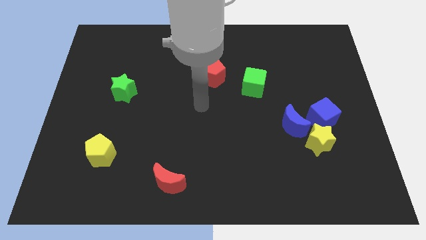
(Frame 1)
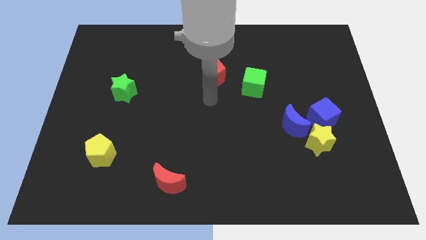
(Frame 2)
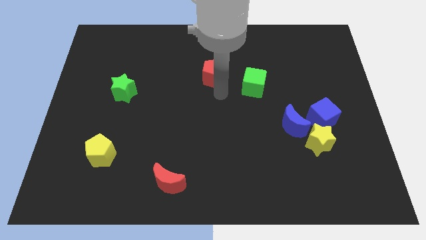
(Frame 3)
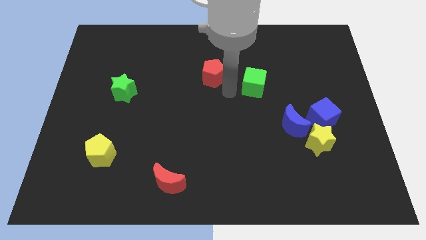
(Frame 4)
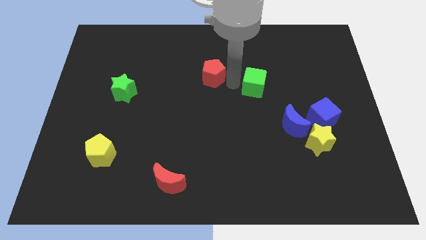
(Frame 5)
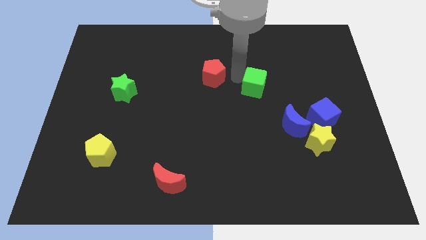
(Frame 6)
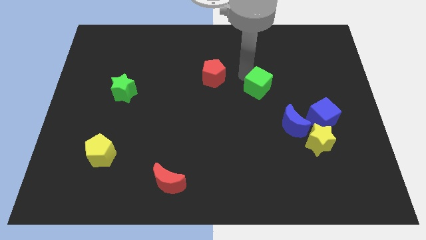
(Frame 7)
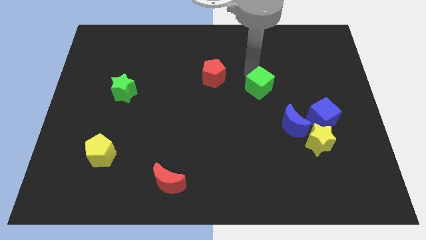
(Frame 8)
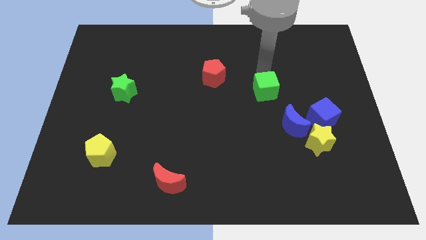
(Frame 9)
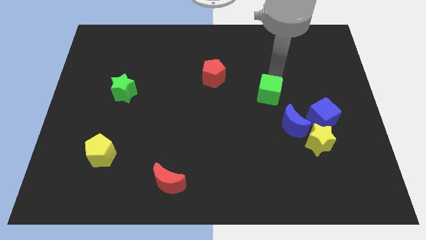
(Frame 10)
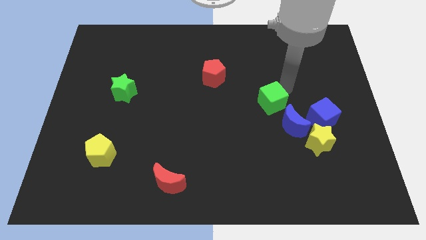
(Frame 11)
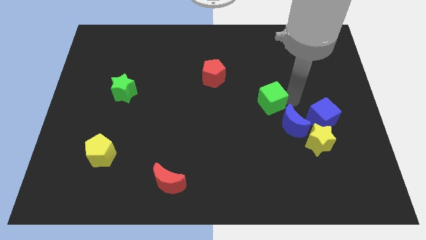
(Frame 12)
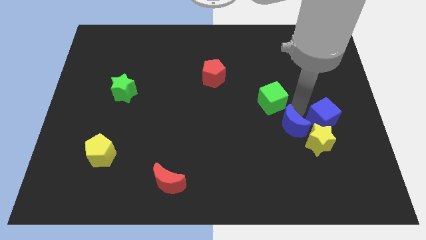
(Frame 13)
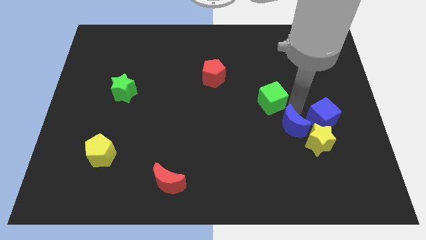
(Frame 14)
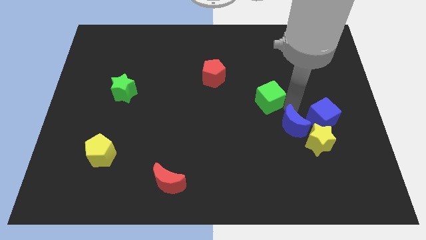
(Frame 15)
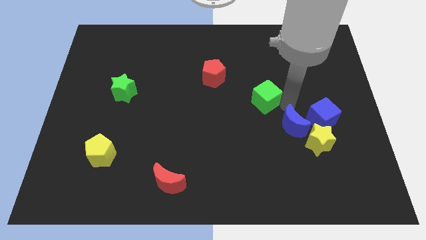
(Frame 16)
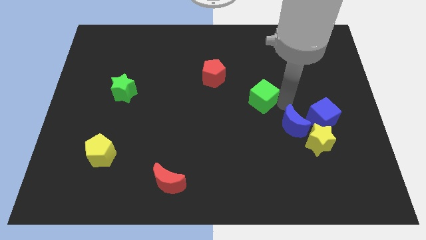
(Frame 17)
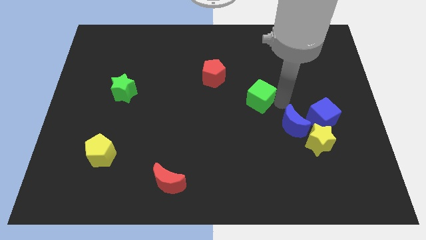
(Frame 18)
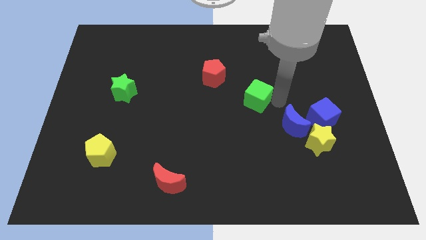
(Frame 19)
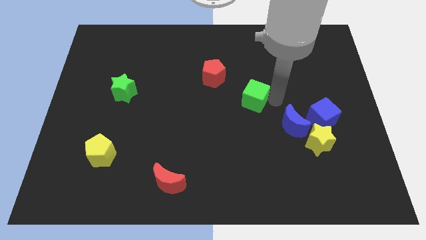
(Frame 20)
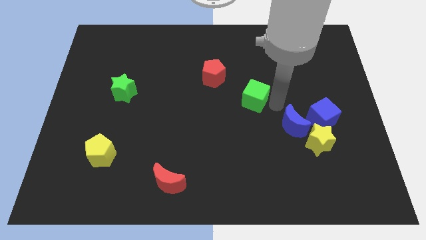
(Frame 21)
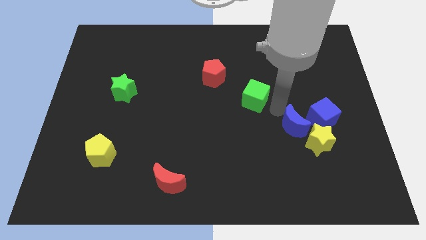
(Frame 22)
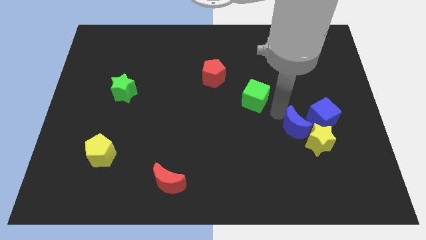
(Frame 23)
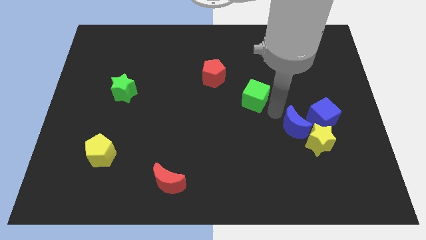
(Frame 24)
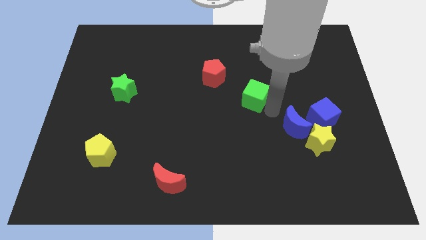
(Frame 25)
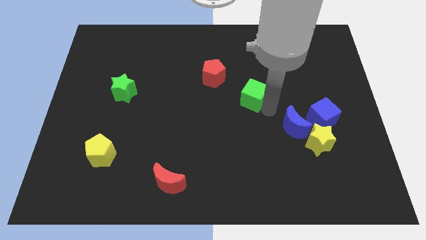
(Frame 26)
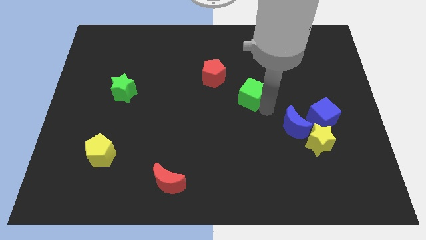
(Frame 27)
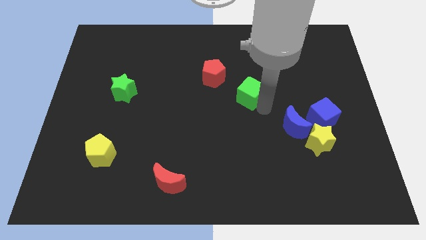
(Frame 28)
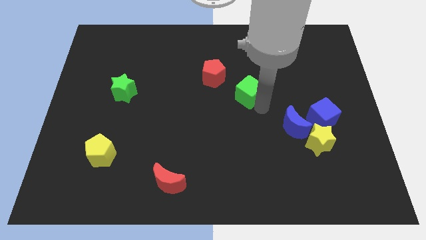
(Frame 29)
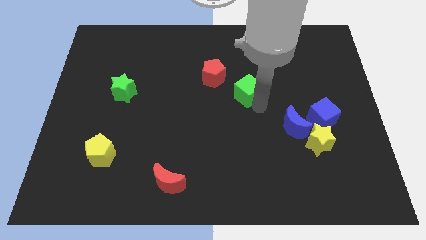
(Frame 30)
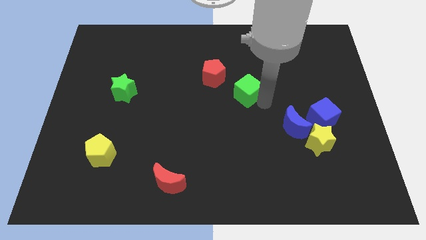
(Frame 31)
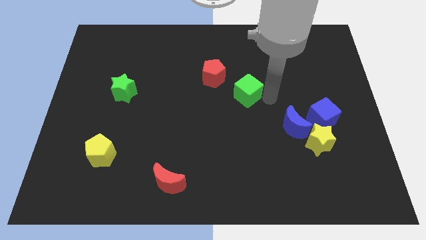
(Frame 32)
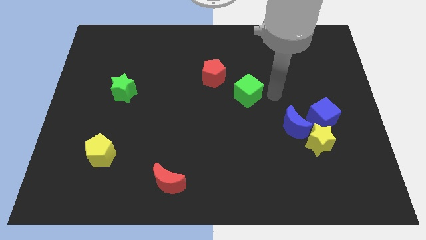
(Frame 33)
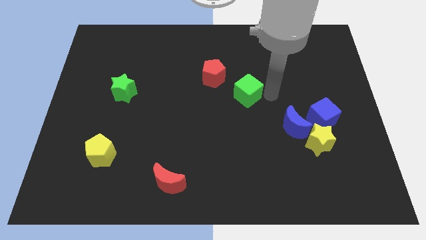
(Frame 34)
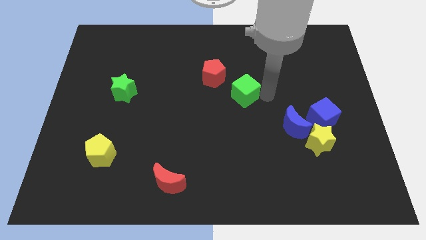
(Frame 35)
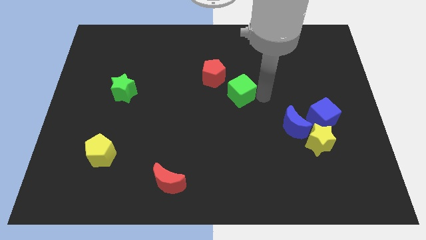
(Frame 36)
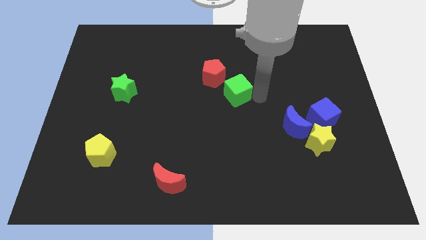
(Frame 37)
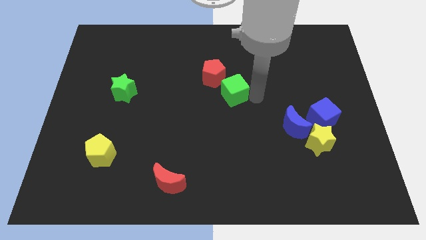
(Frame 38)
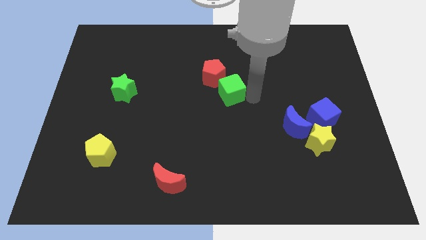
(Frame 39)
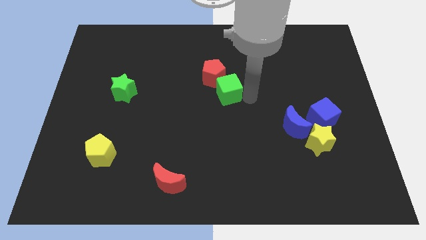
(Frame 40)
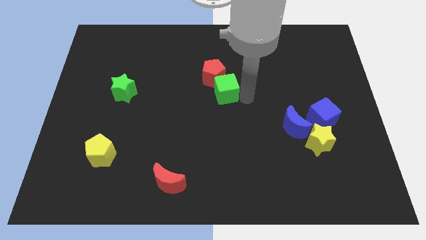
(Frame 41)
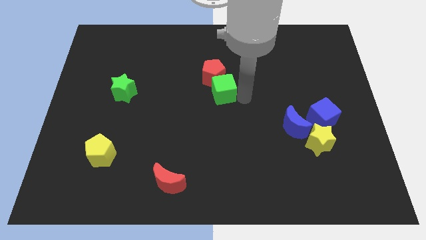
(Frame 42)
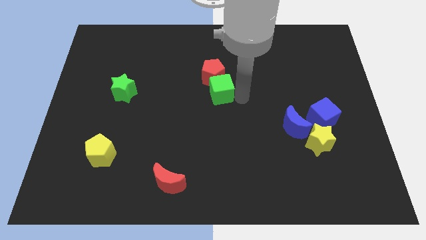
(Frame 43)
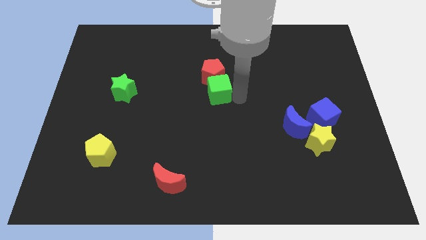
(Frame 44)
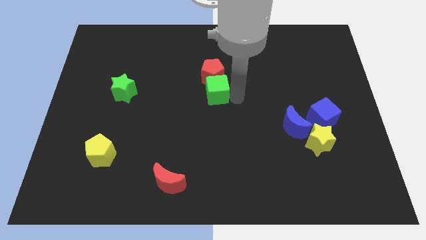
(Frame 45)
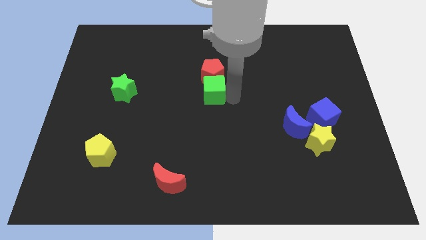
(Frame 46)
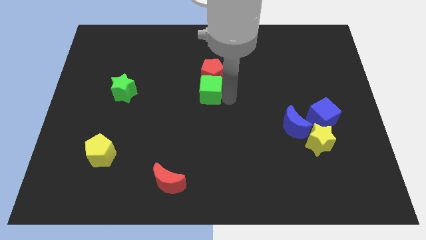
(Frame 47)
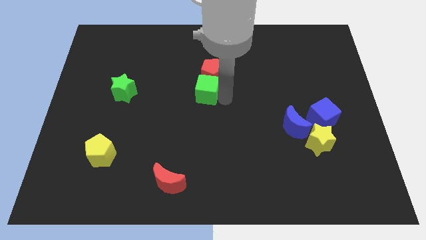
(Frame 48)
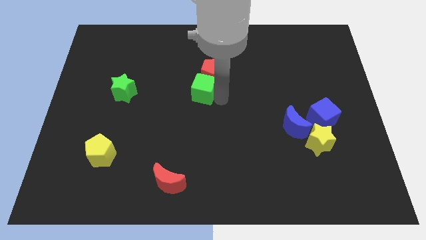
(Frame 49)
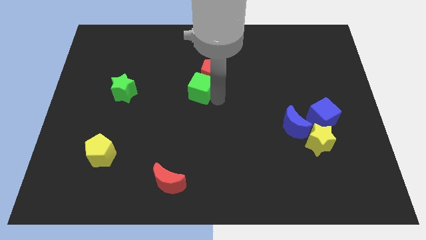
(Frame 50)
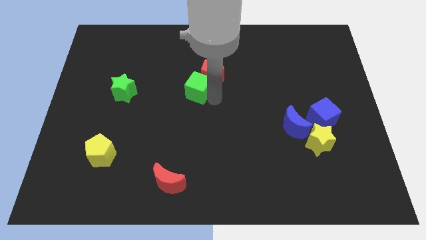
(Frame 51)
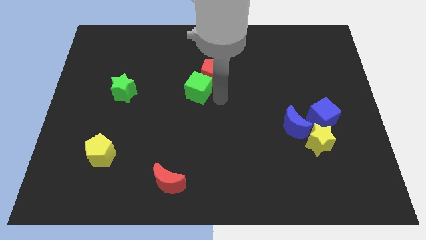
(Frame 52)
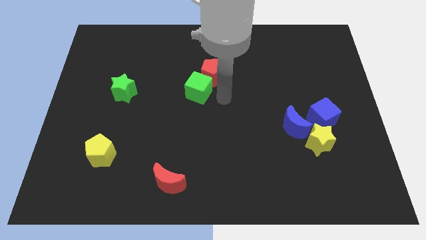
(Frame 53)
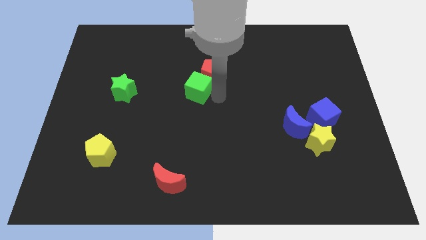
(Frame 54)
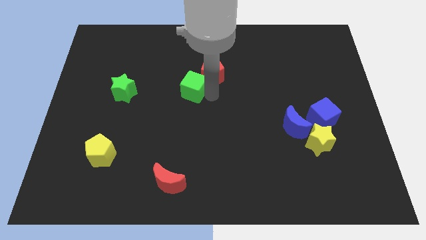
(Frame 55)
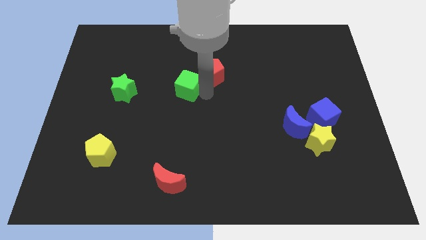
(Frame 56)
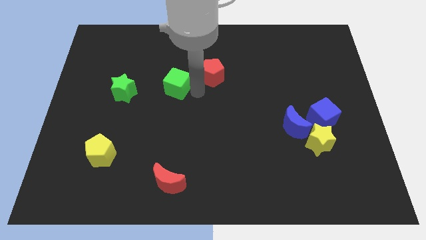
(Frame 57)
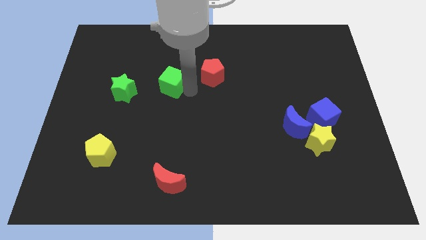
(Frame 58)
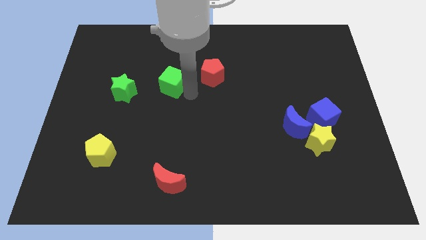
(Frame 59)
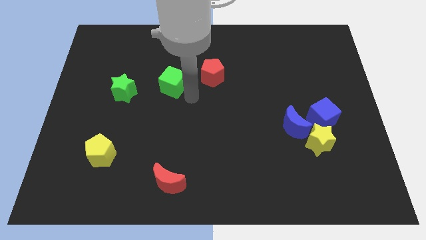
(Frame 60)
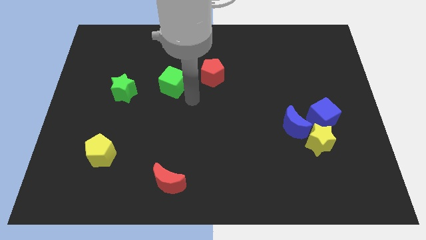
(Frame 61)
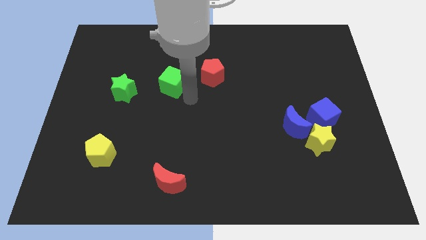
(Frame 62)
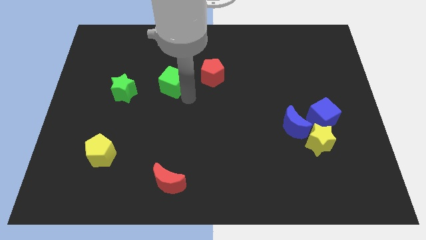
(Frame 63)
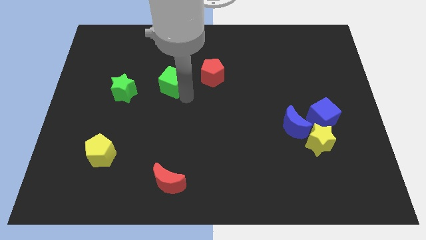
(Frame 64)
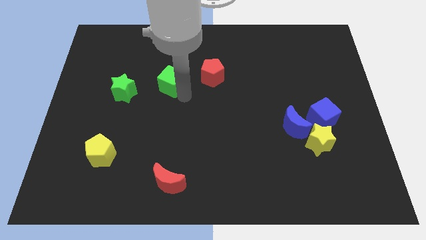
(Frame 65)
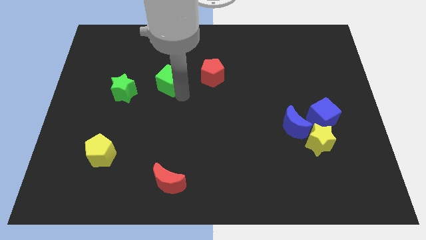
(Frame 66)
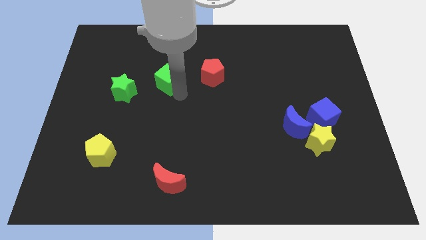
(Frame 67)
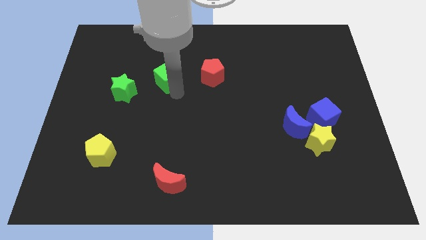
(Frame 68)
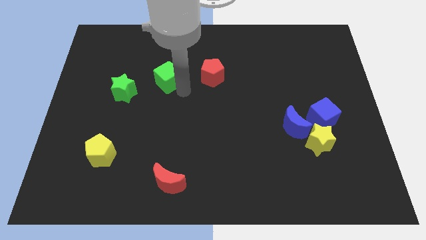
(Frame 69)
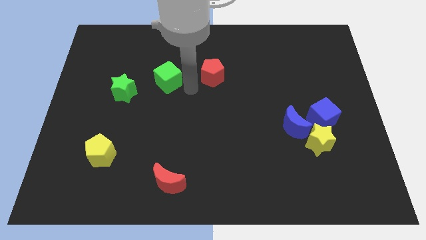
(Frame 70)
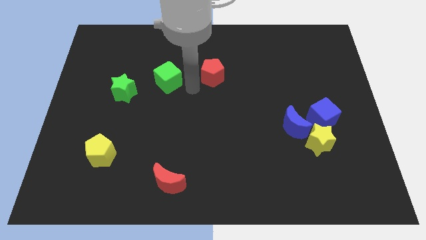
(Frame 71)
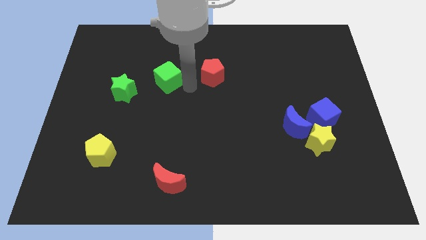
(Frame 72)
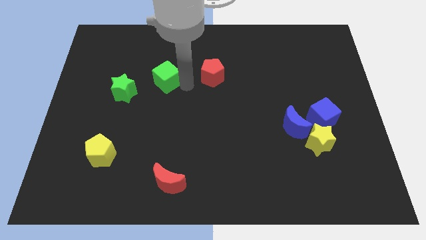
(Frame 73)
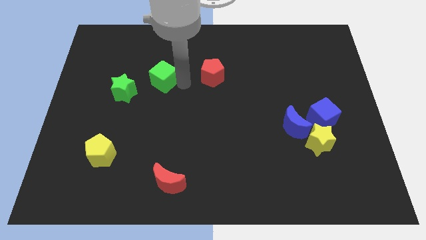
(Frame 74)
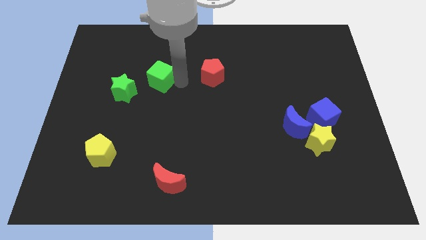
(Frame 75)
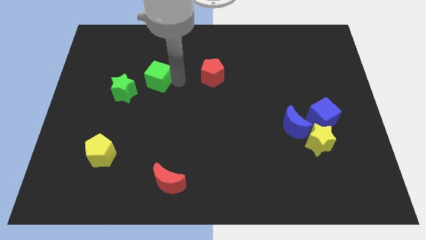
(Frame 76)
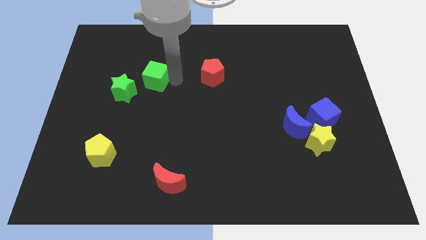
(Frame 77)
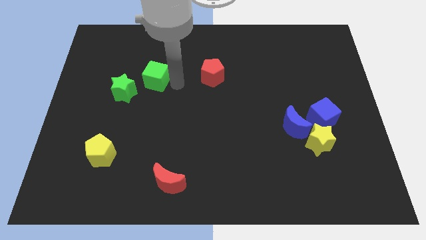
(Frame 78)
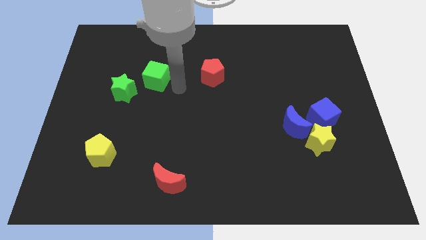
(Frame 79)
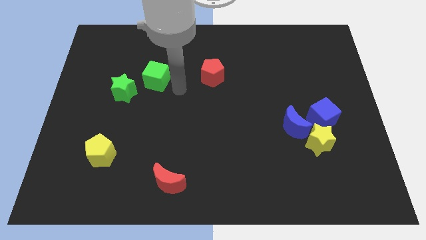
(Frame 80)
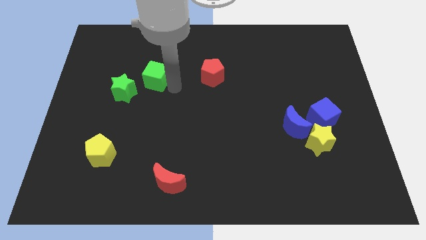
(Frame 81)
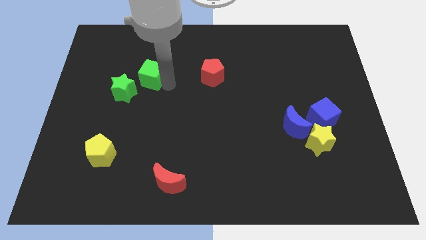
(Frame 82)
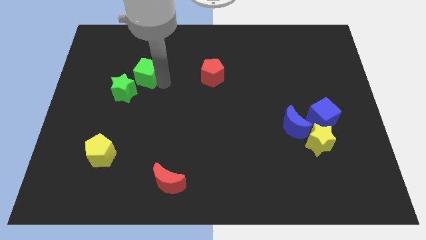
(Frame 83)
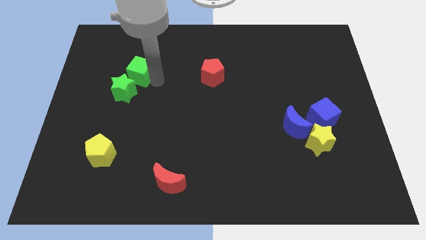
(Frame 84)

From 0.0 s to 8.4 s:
move the green cube to the top of the green star
